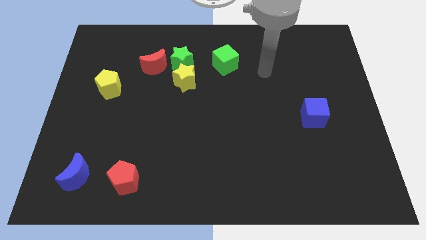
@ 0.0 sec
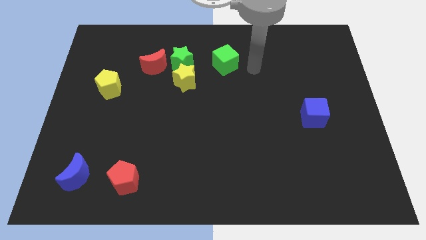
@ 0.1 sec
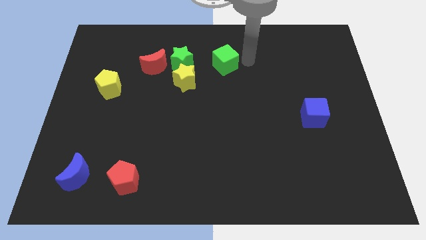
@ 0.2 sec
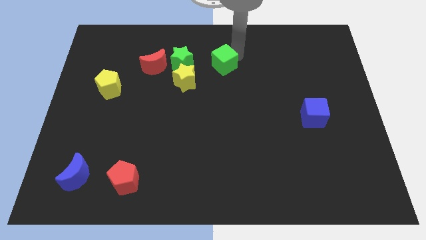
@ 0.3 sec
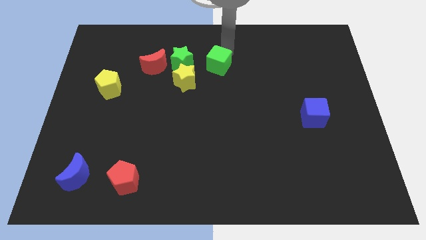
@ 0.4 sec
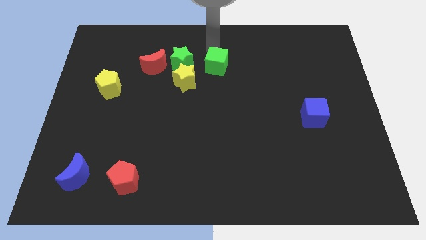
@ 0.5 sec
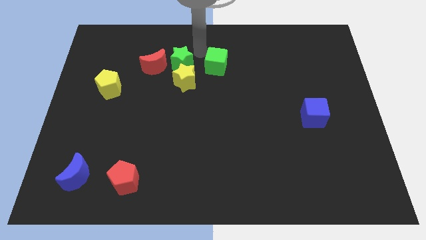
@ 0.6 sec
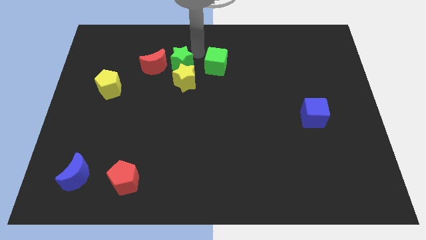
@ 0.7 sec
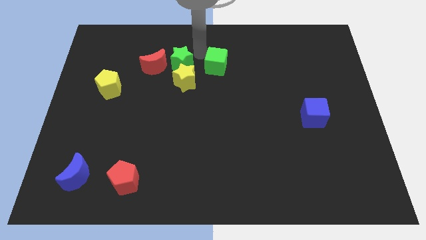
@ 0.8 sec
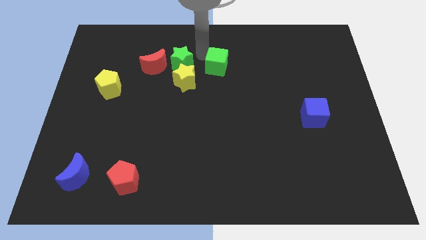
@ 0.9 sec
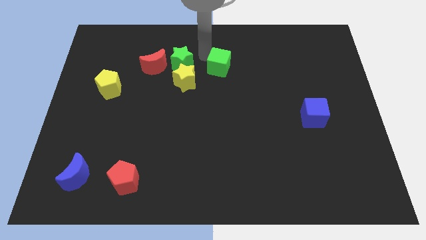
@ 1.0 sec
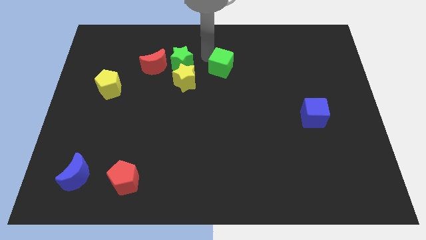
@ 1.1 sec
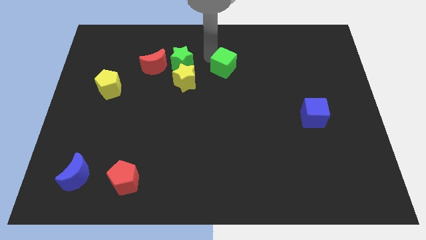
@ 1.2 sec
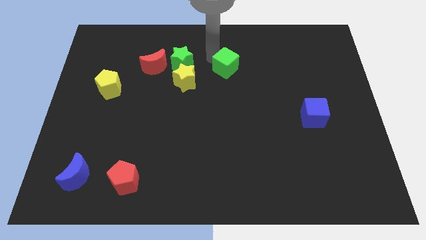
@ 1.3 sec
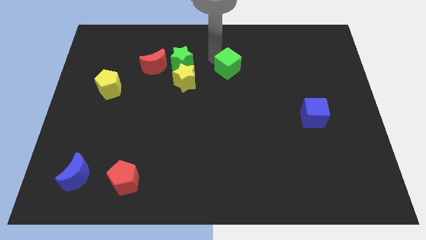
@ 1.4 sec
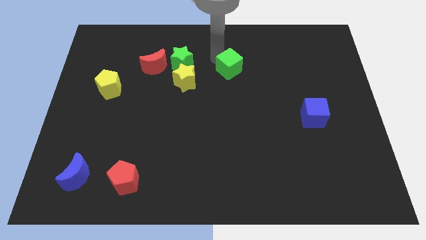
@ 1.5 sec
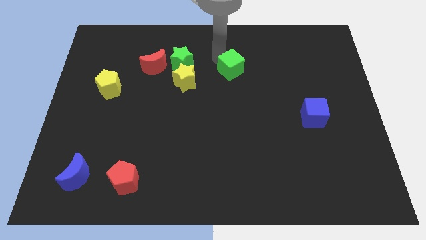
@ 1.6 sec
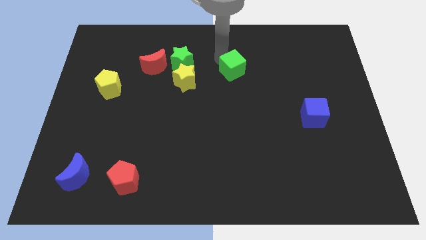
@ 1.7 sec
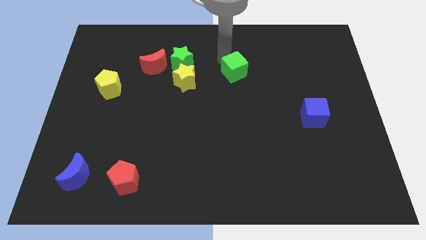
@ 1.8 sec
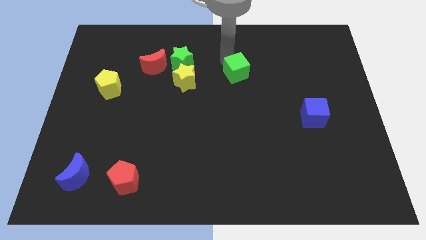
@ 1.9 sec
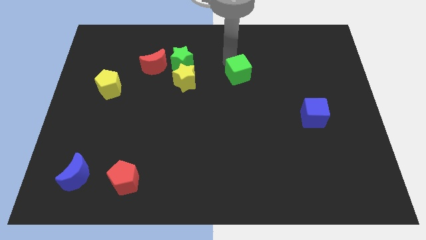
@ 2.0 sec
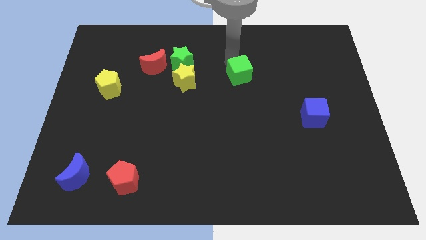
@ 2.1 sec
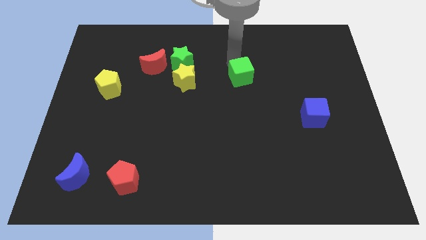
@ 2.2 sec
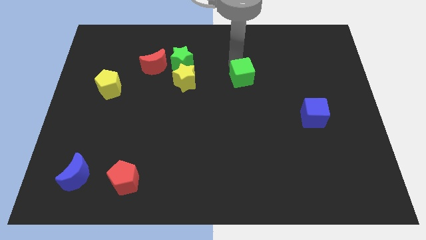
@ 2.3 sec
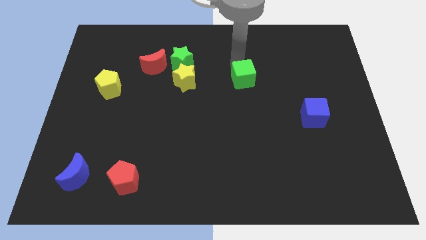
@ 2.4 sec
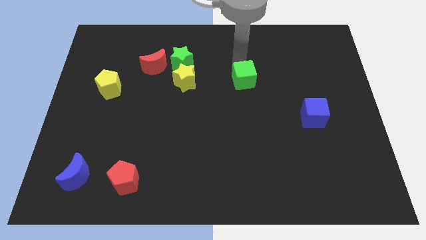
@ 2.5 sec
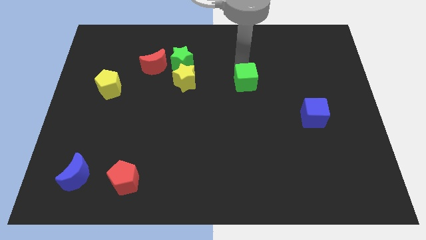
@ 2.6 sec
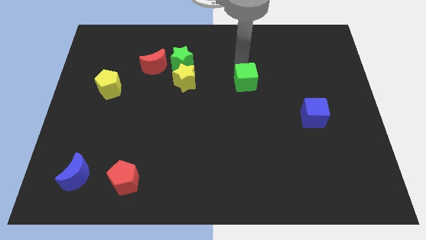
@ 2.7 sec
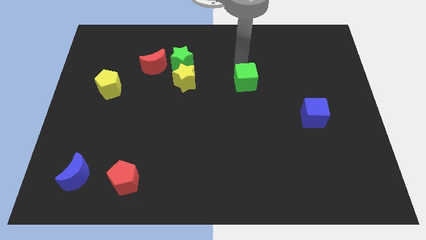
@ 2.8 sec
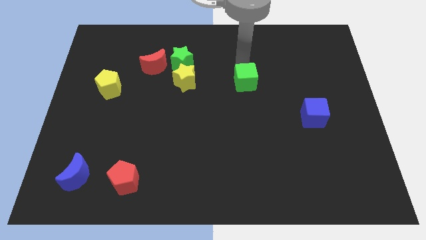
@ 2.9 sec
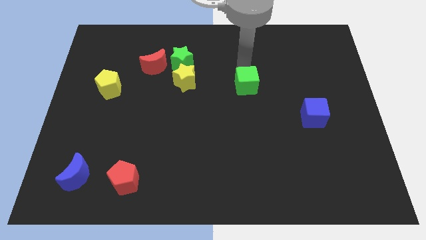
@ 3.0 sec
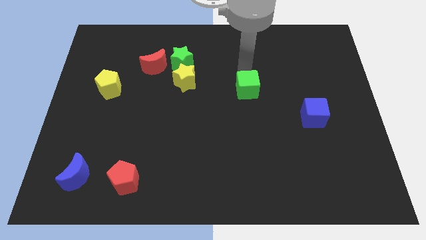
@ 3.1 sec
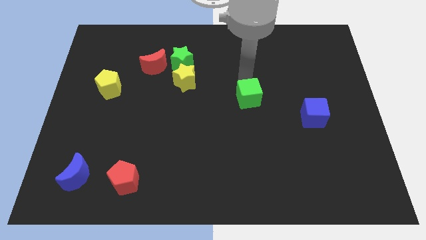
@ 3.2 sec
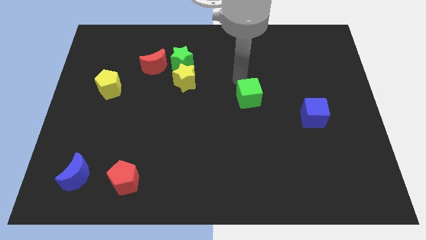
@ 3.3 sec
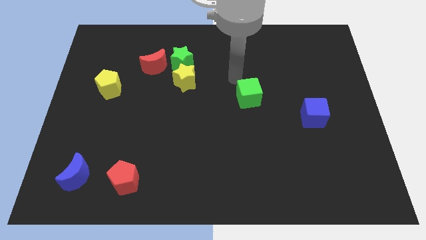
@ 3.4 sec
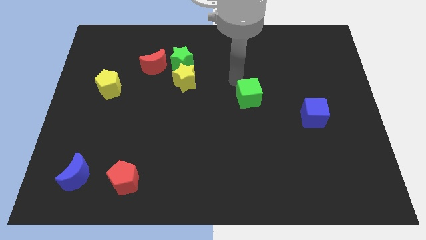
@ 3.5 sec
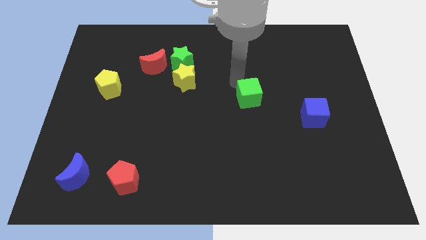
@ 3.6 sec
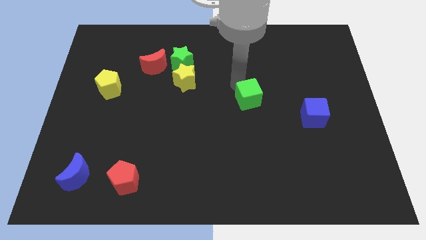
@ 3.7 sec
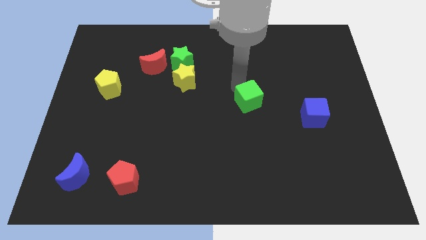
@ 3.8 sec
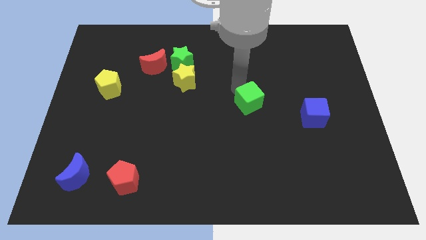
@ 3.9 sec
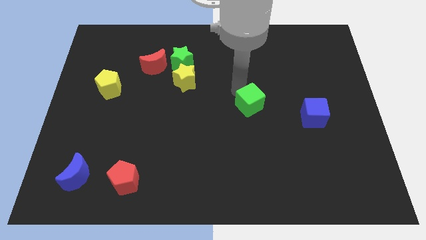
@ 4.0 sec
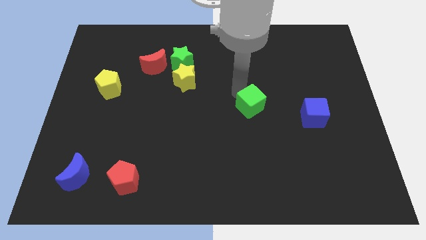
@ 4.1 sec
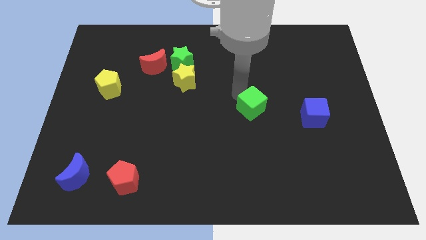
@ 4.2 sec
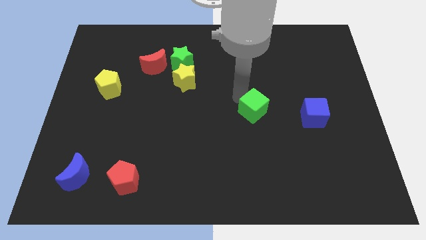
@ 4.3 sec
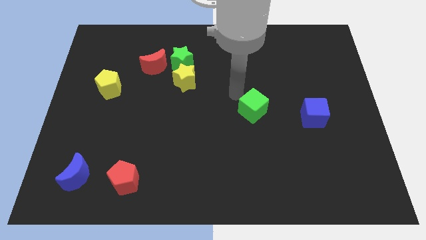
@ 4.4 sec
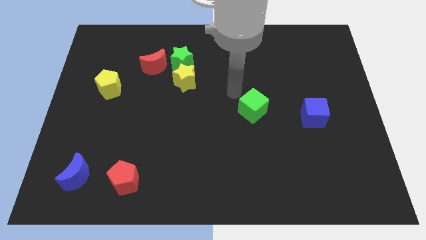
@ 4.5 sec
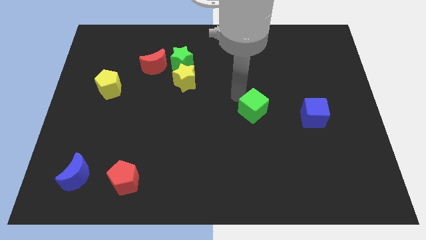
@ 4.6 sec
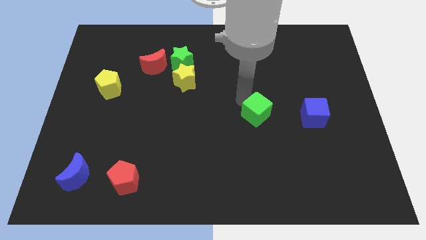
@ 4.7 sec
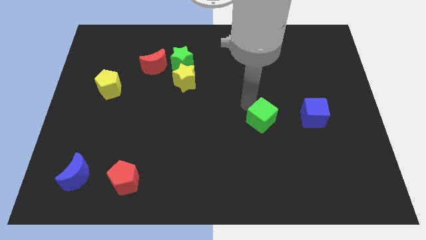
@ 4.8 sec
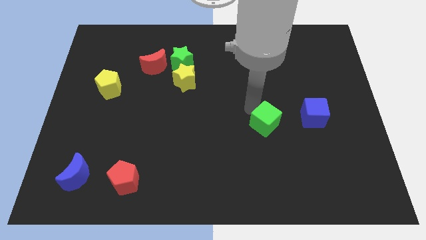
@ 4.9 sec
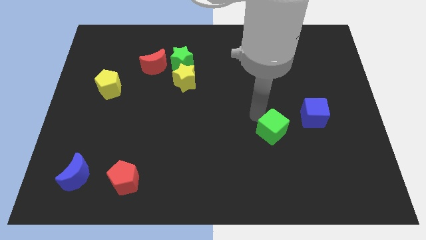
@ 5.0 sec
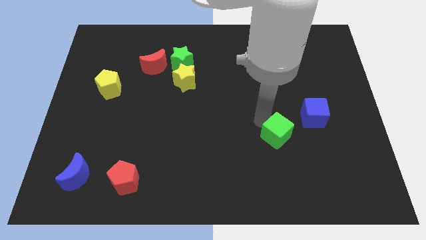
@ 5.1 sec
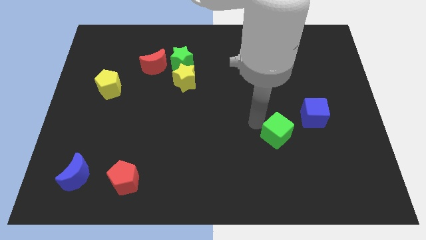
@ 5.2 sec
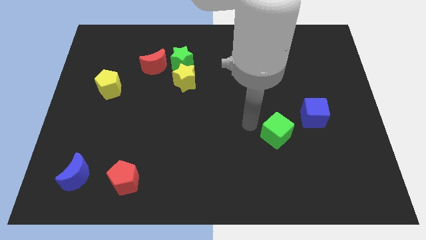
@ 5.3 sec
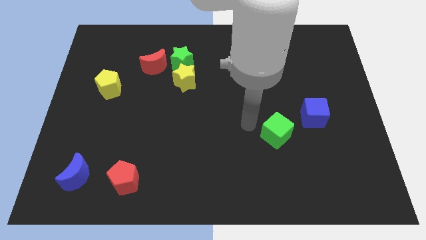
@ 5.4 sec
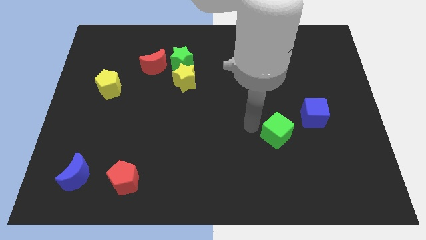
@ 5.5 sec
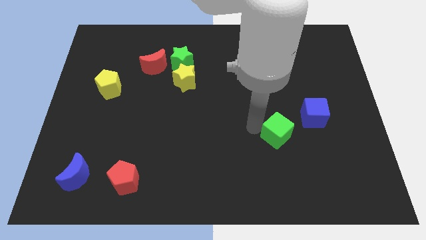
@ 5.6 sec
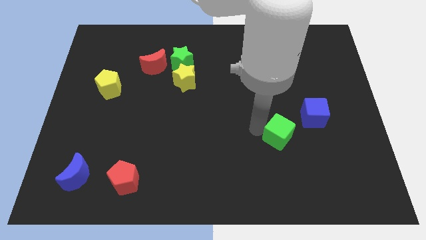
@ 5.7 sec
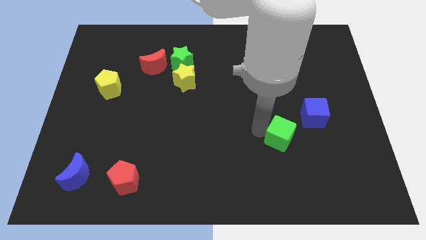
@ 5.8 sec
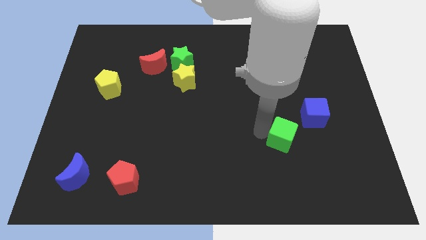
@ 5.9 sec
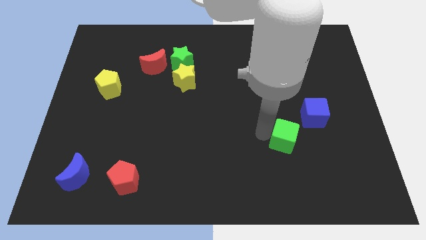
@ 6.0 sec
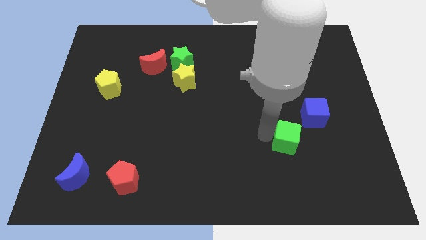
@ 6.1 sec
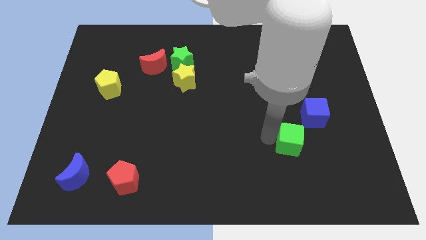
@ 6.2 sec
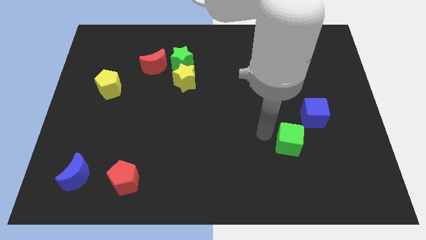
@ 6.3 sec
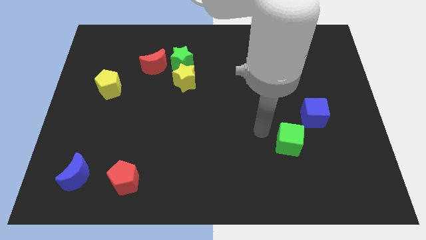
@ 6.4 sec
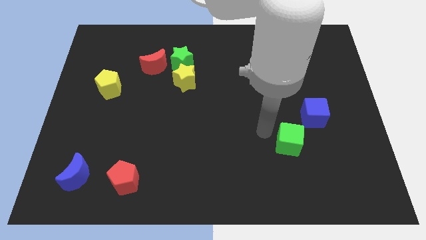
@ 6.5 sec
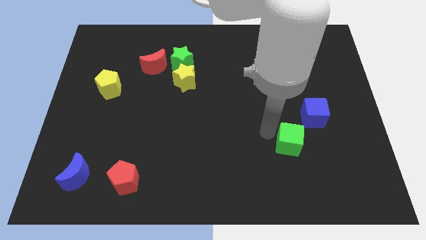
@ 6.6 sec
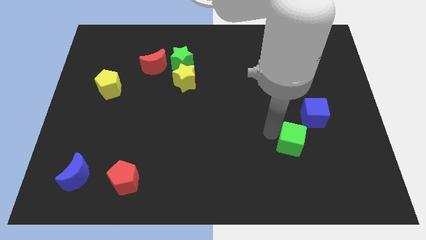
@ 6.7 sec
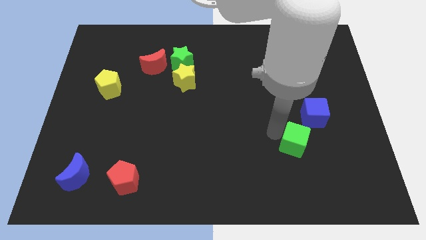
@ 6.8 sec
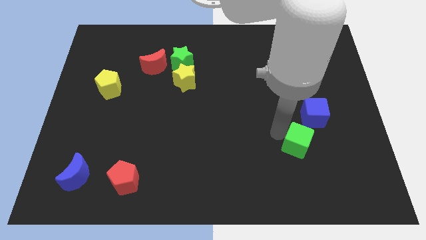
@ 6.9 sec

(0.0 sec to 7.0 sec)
put the green cube to the bottom side of the blue cube
